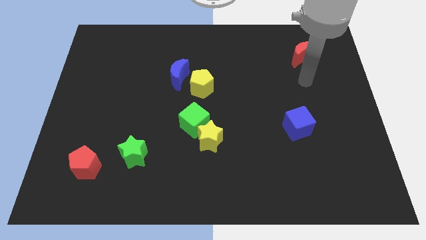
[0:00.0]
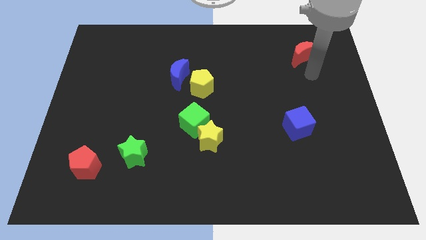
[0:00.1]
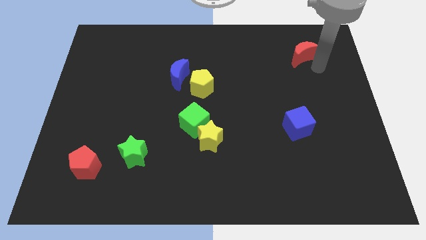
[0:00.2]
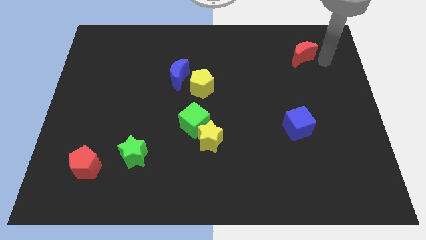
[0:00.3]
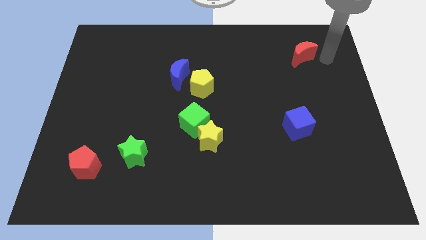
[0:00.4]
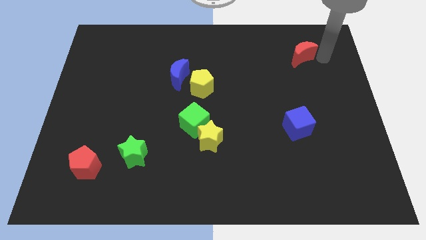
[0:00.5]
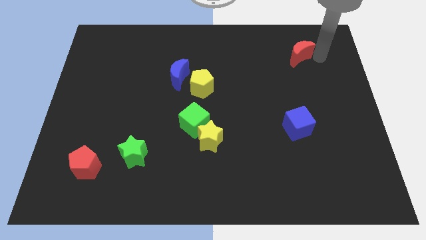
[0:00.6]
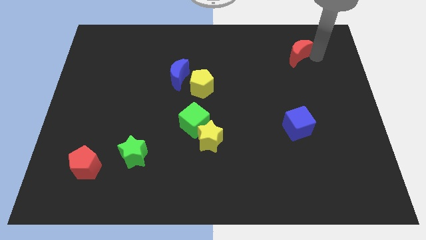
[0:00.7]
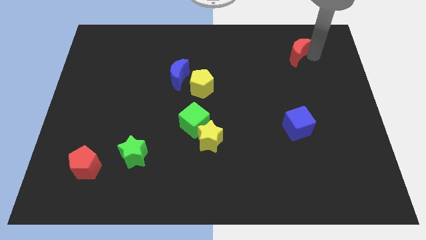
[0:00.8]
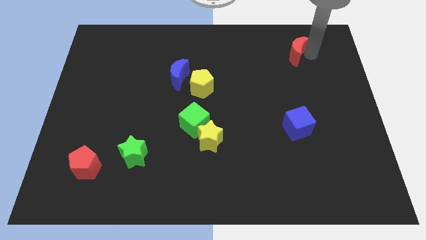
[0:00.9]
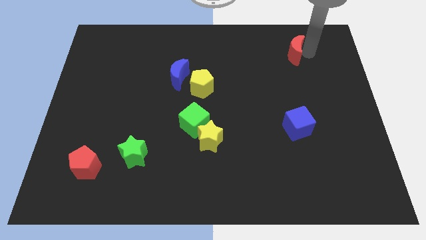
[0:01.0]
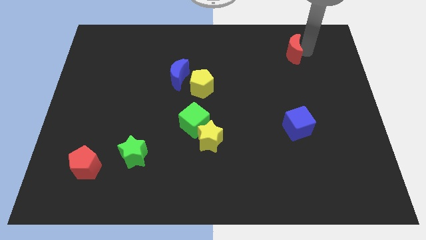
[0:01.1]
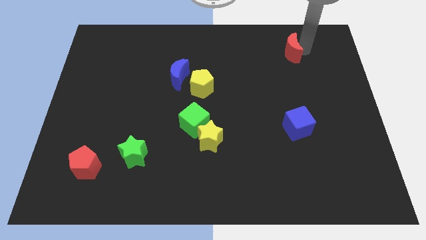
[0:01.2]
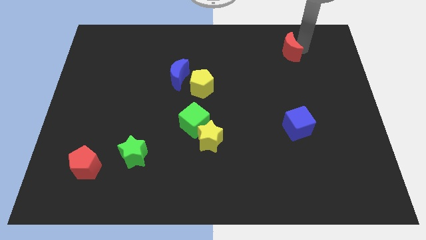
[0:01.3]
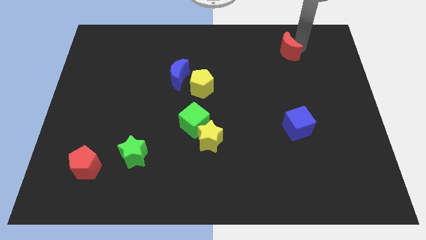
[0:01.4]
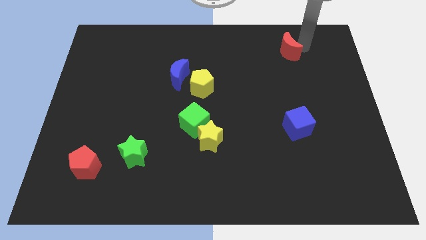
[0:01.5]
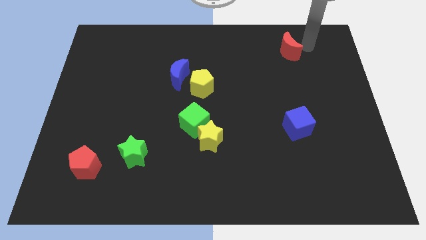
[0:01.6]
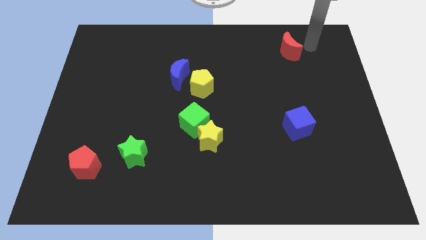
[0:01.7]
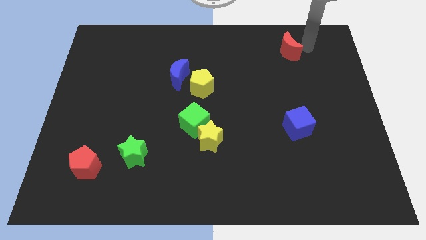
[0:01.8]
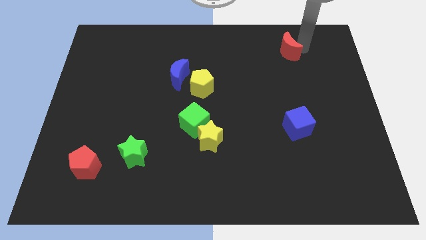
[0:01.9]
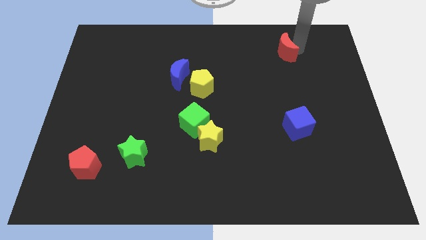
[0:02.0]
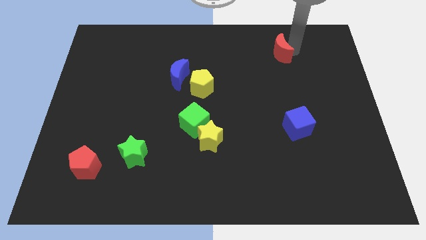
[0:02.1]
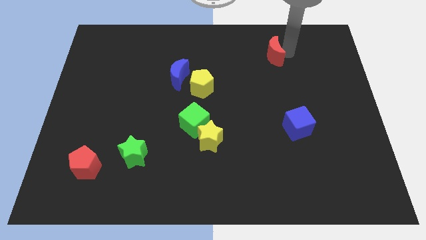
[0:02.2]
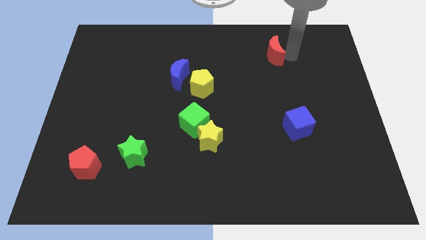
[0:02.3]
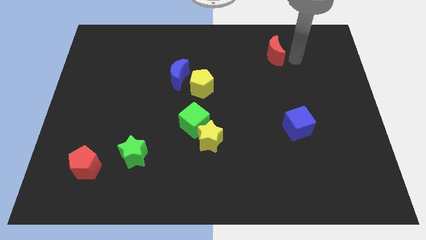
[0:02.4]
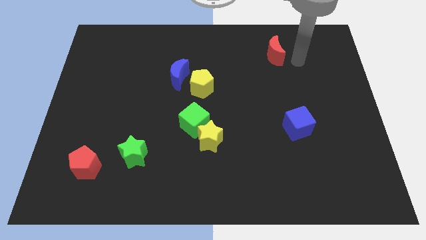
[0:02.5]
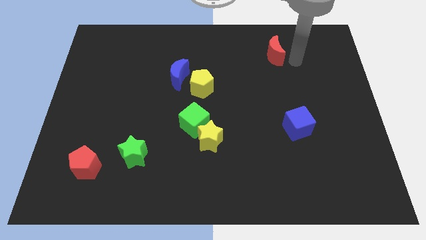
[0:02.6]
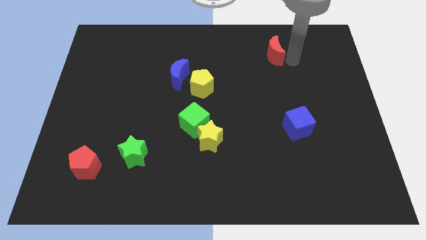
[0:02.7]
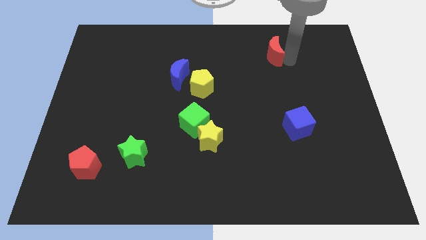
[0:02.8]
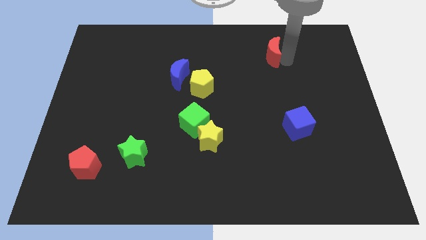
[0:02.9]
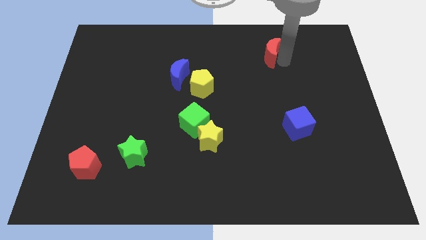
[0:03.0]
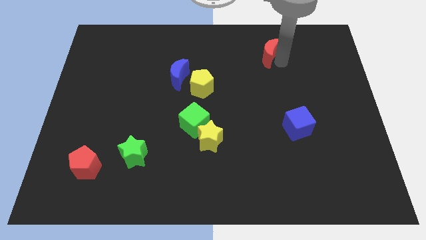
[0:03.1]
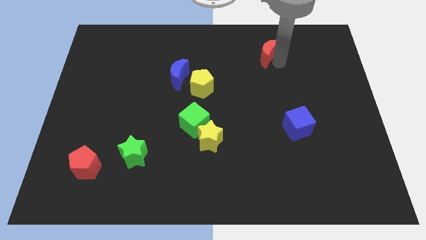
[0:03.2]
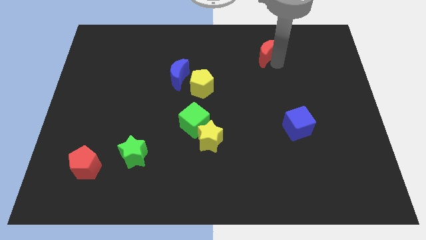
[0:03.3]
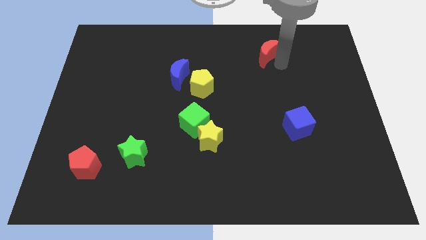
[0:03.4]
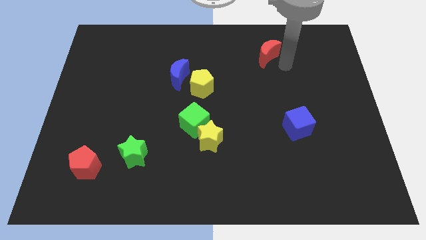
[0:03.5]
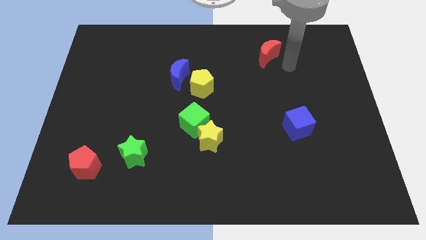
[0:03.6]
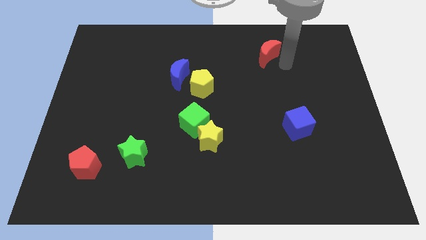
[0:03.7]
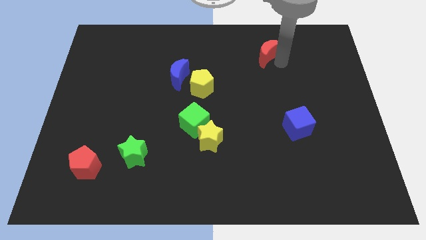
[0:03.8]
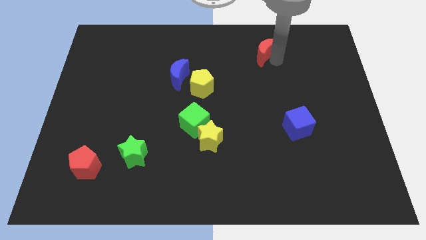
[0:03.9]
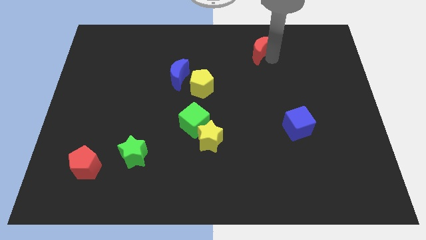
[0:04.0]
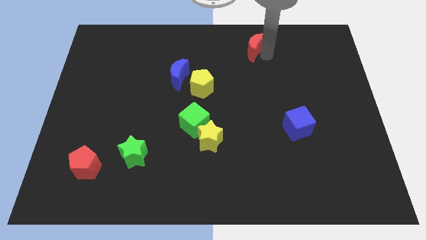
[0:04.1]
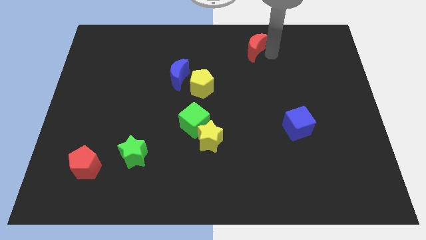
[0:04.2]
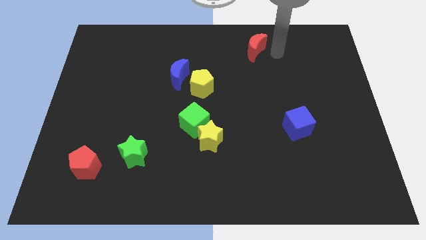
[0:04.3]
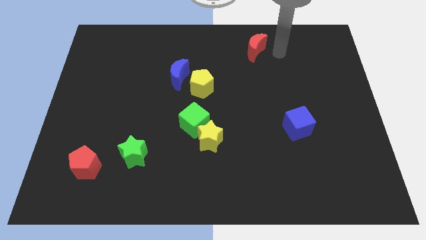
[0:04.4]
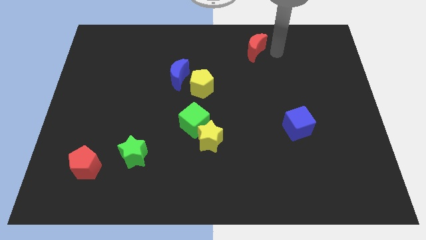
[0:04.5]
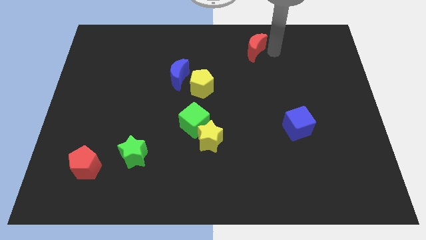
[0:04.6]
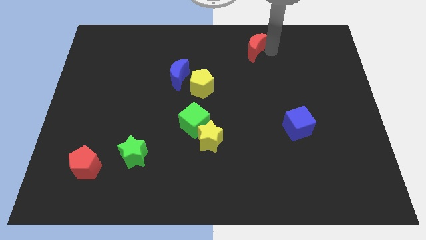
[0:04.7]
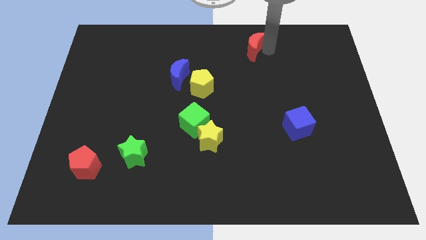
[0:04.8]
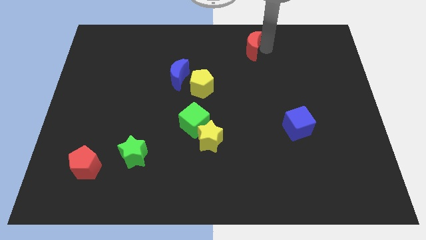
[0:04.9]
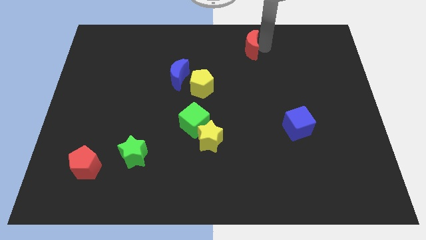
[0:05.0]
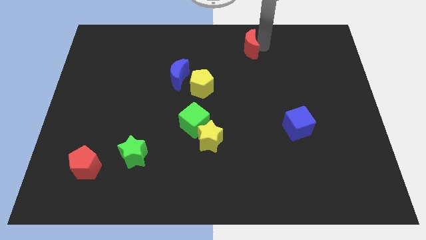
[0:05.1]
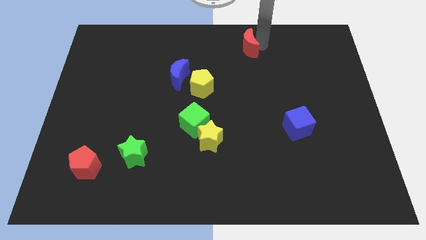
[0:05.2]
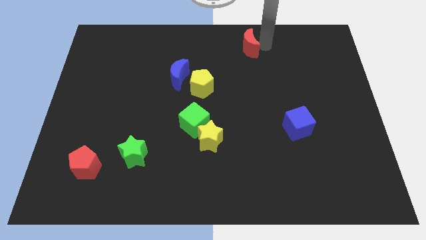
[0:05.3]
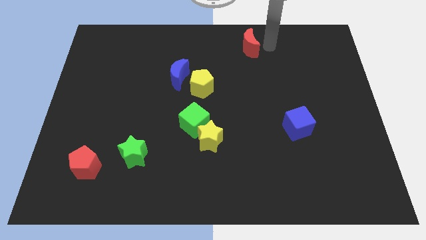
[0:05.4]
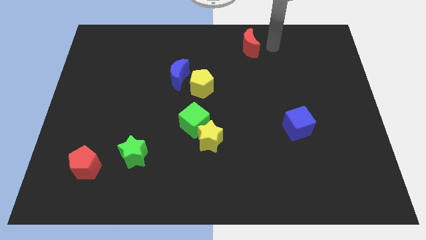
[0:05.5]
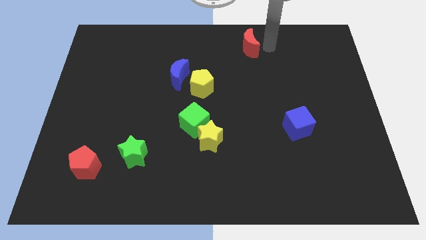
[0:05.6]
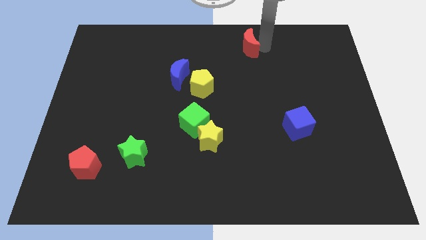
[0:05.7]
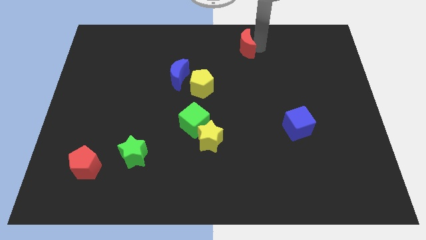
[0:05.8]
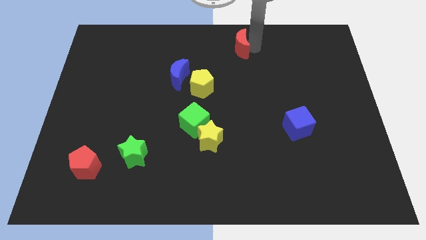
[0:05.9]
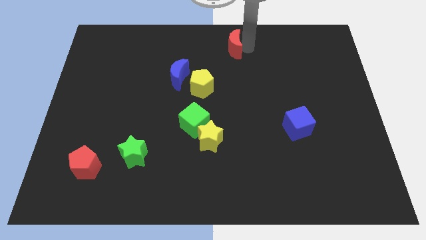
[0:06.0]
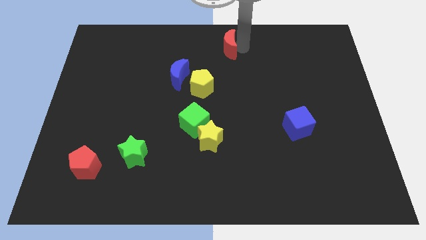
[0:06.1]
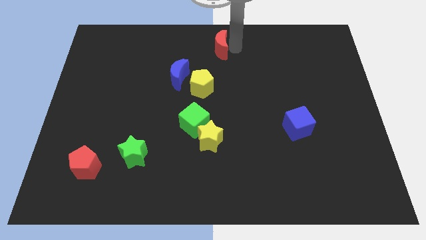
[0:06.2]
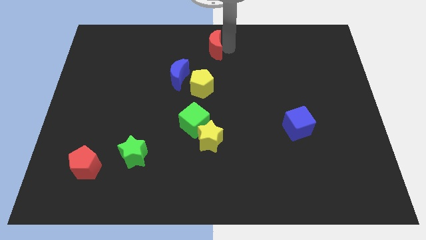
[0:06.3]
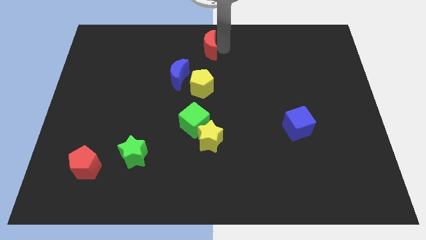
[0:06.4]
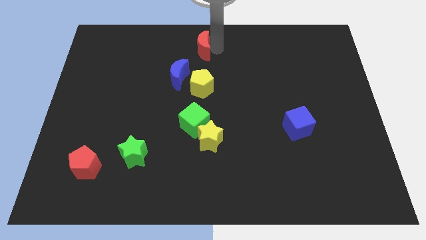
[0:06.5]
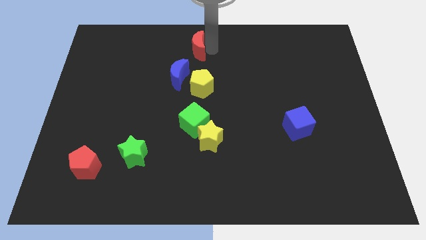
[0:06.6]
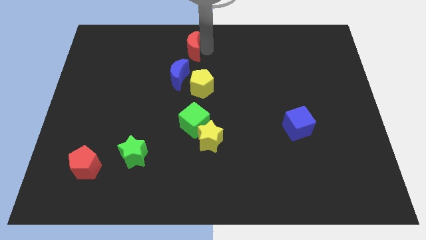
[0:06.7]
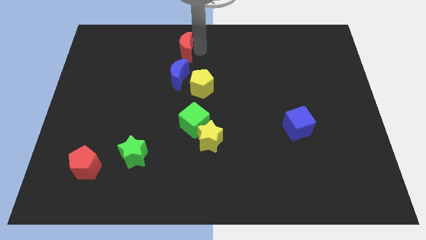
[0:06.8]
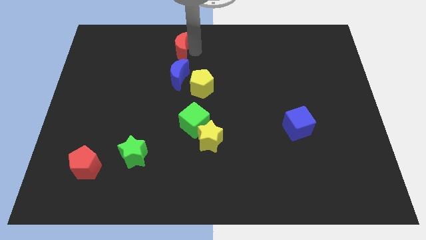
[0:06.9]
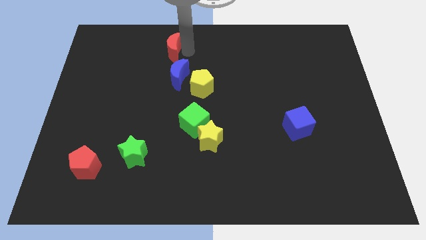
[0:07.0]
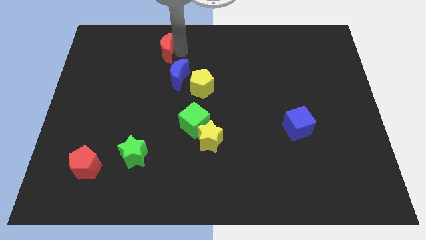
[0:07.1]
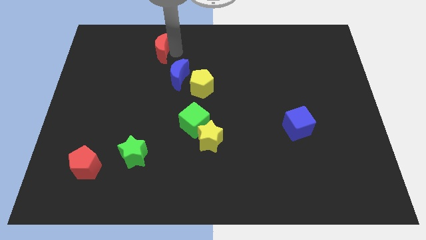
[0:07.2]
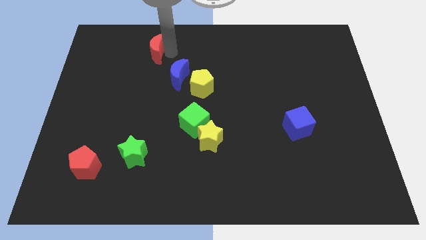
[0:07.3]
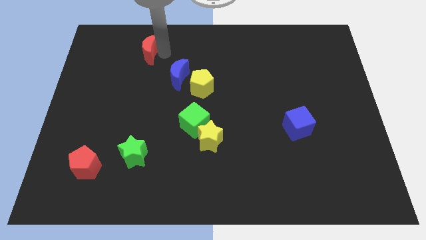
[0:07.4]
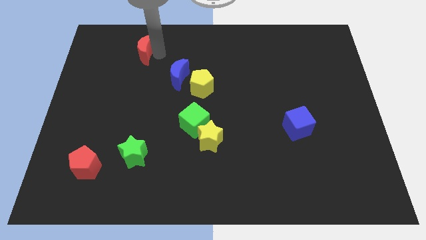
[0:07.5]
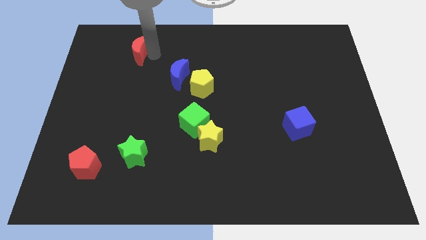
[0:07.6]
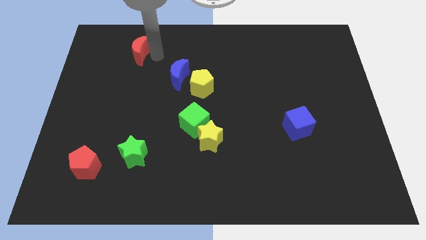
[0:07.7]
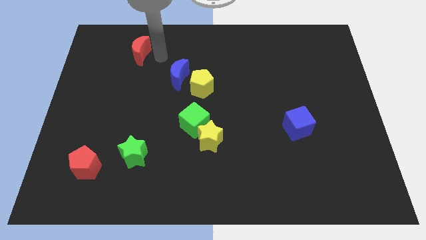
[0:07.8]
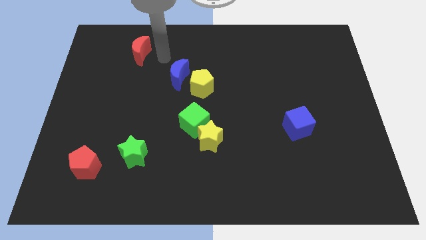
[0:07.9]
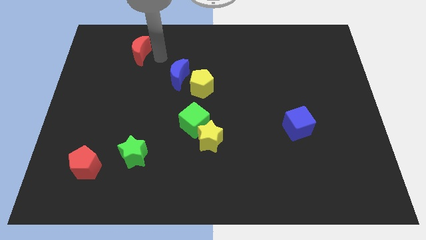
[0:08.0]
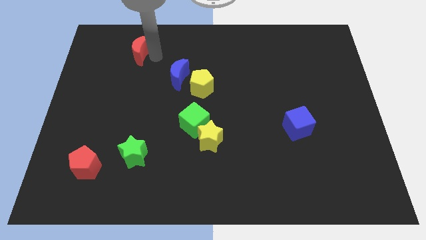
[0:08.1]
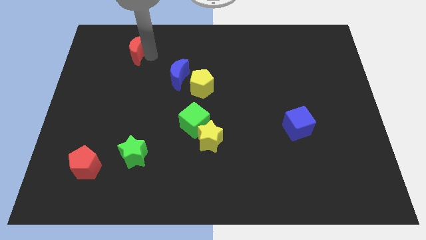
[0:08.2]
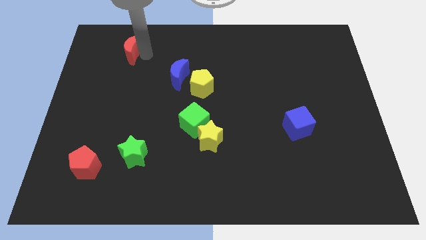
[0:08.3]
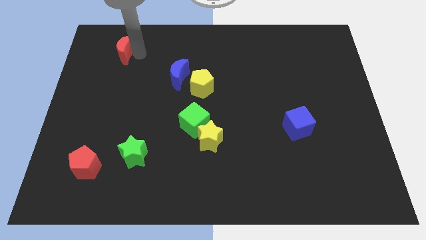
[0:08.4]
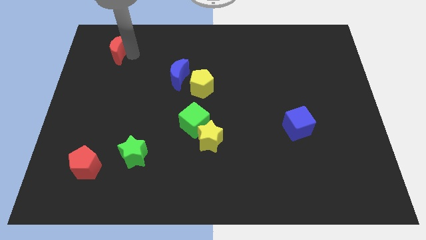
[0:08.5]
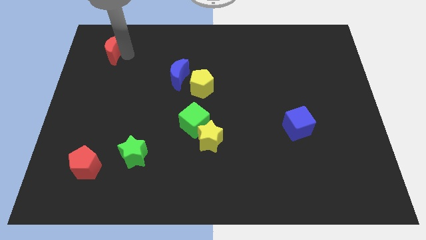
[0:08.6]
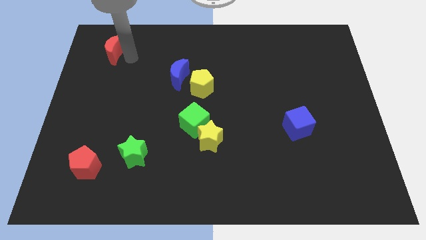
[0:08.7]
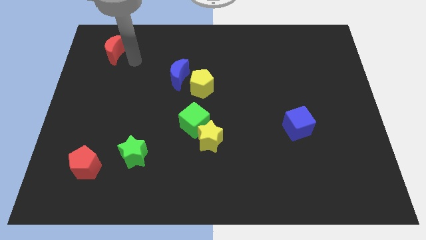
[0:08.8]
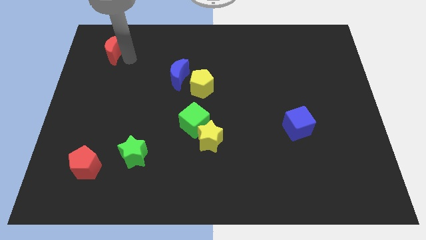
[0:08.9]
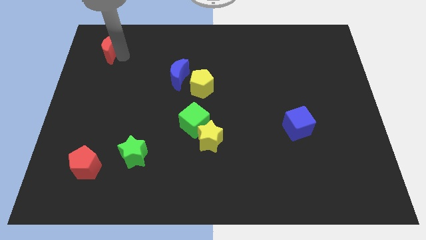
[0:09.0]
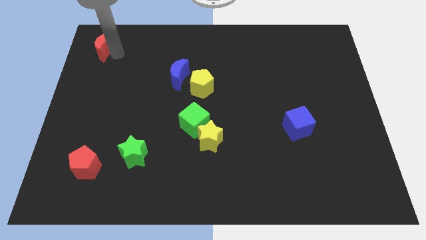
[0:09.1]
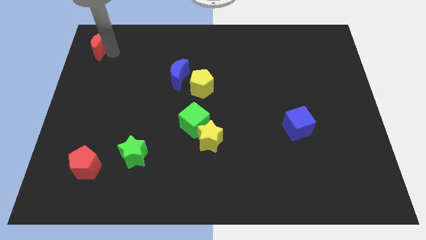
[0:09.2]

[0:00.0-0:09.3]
move the red moon to the top left corner
